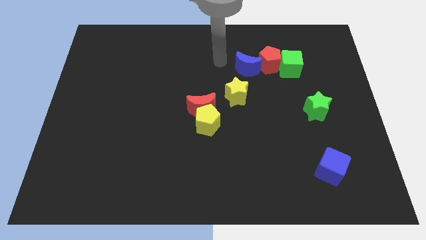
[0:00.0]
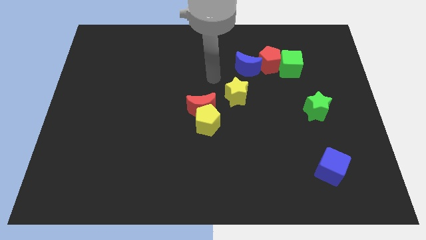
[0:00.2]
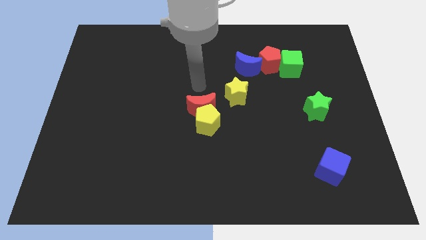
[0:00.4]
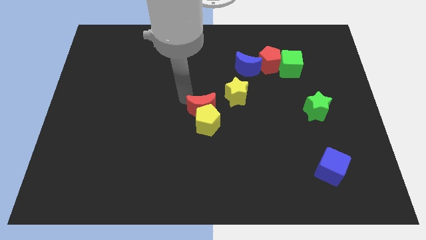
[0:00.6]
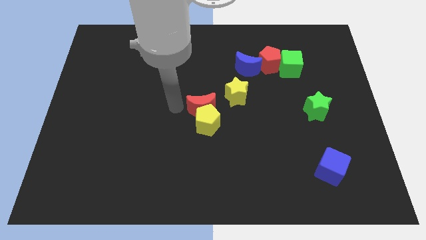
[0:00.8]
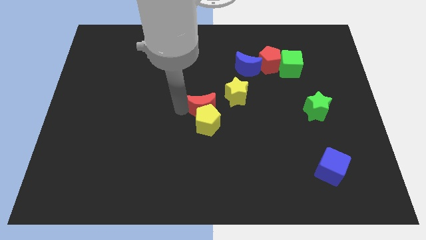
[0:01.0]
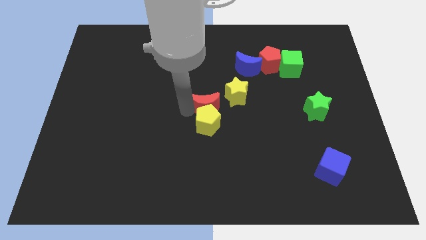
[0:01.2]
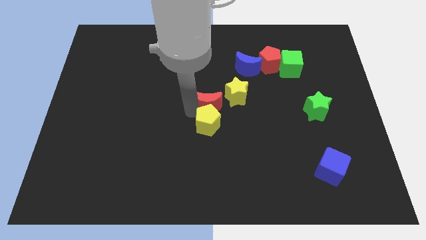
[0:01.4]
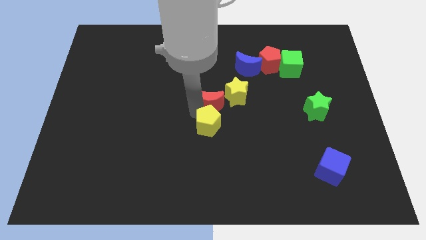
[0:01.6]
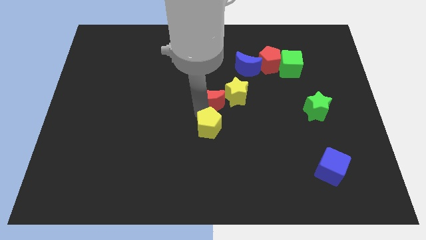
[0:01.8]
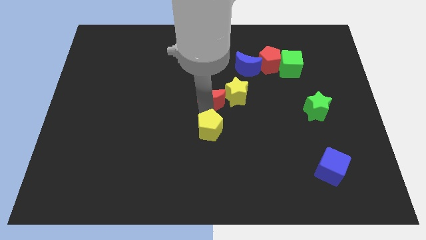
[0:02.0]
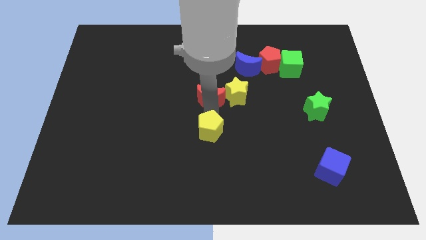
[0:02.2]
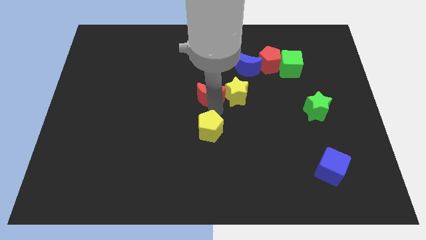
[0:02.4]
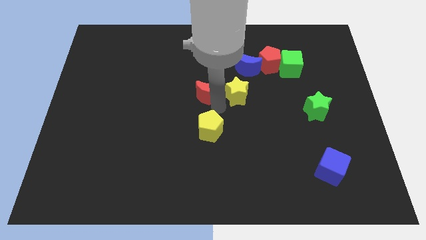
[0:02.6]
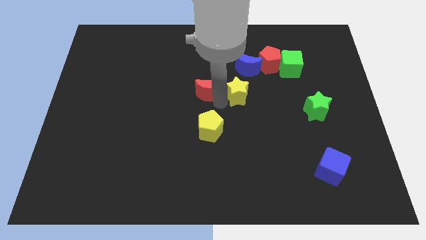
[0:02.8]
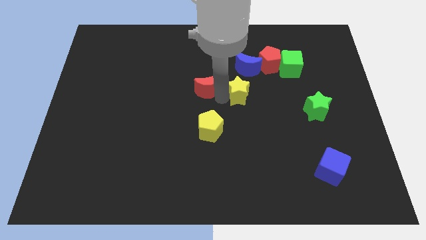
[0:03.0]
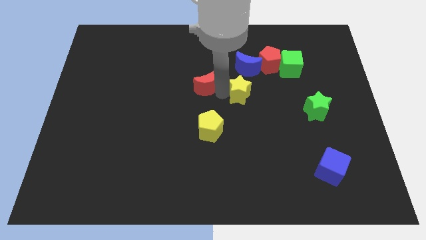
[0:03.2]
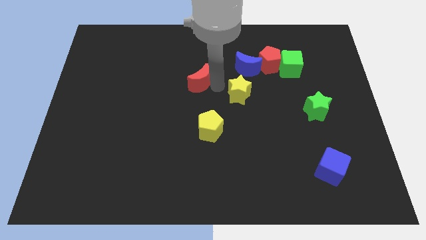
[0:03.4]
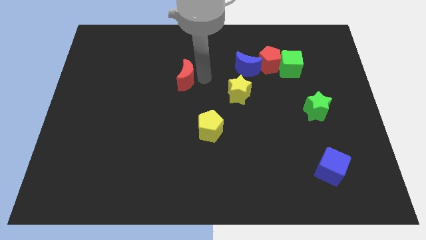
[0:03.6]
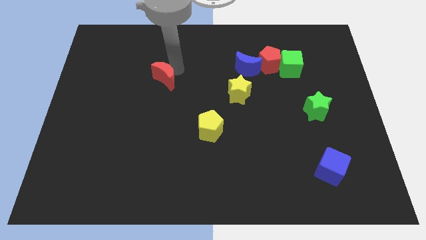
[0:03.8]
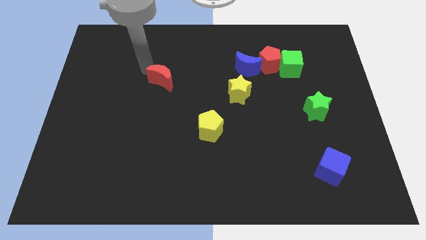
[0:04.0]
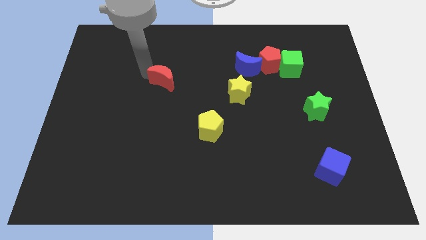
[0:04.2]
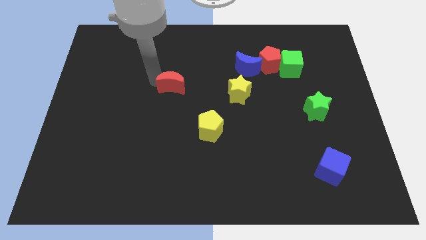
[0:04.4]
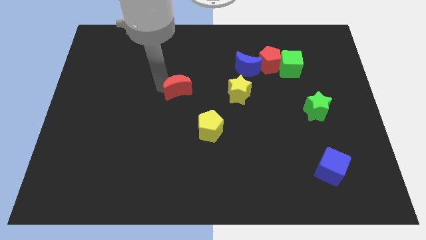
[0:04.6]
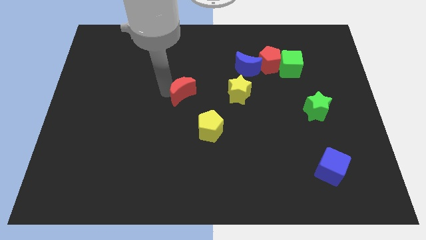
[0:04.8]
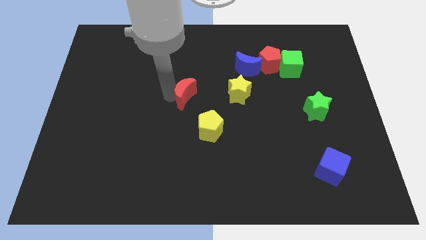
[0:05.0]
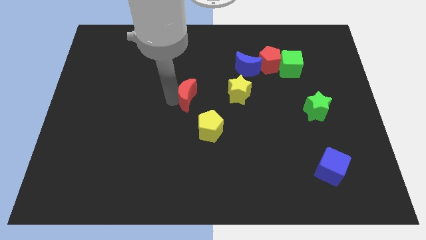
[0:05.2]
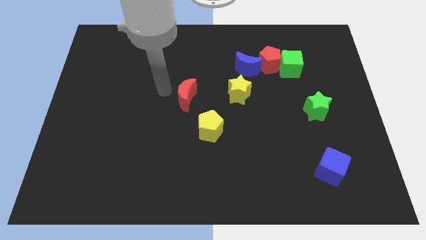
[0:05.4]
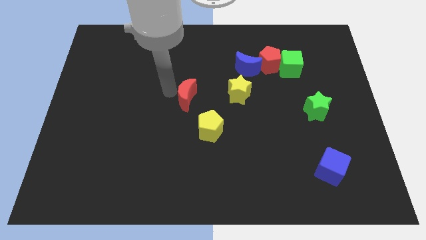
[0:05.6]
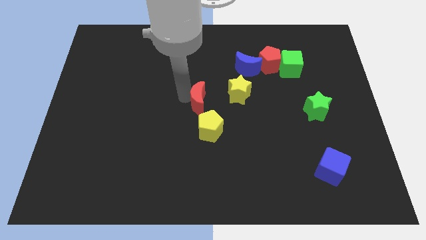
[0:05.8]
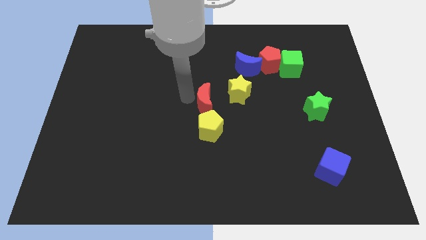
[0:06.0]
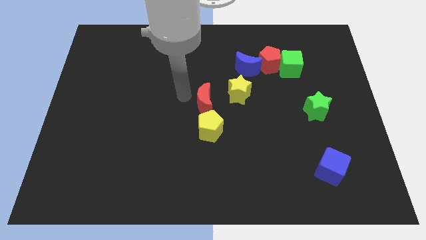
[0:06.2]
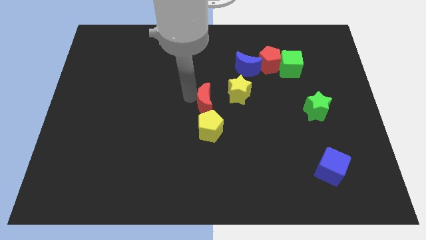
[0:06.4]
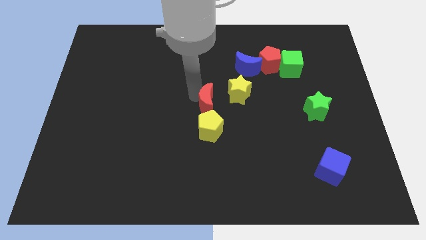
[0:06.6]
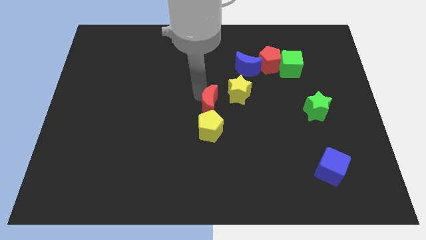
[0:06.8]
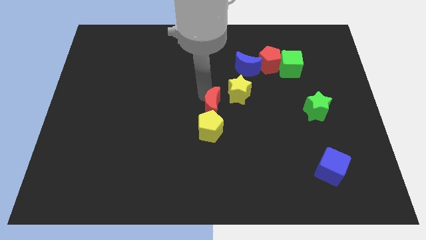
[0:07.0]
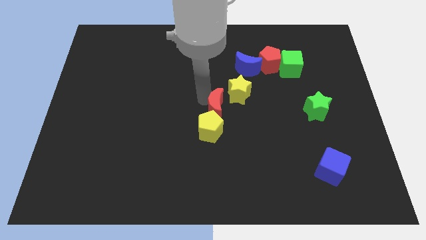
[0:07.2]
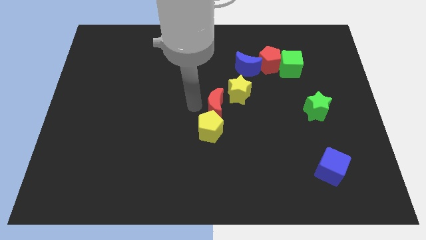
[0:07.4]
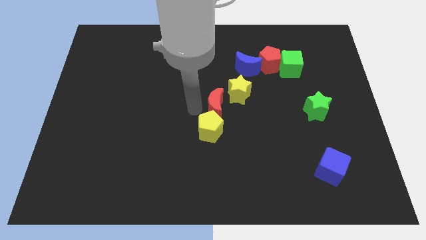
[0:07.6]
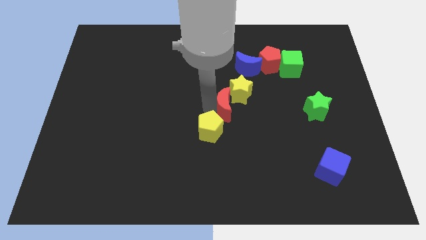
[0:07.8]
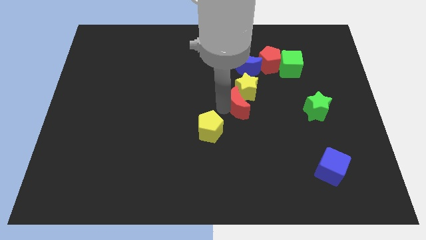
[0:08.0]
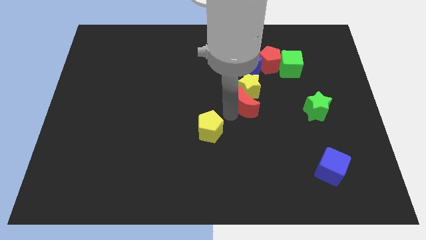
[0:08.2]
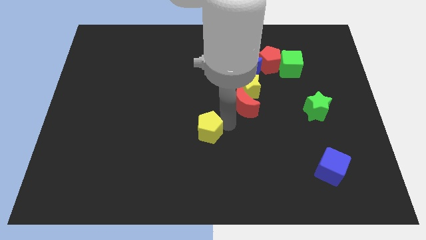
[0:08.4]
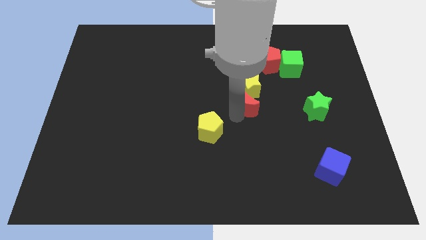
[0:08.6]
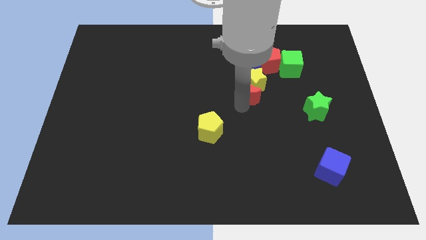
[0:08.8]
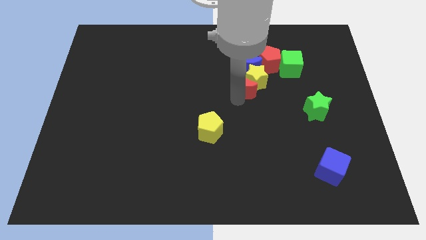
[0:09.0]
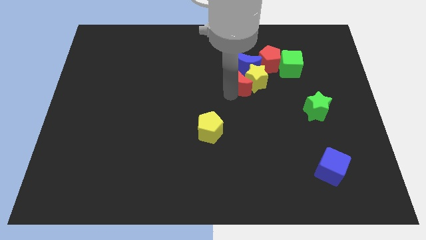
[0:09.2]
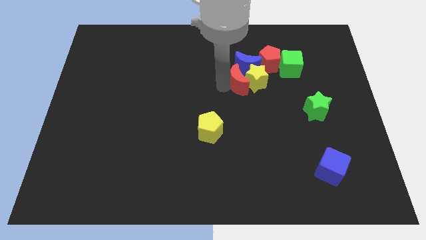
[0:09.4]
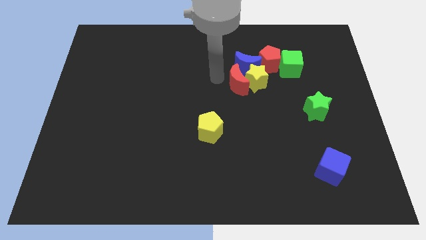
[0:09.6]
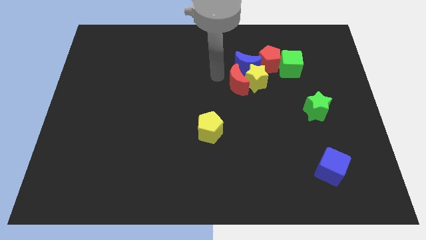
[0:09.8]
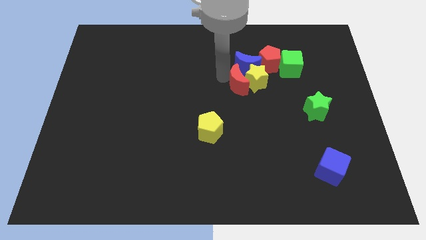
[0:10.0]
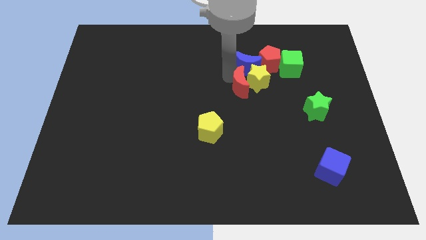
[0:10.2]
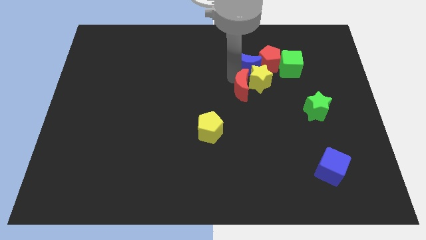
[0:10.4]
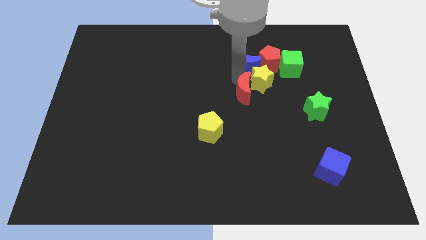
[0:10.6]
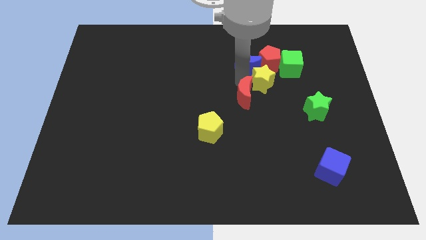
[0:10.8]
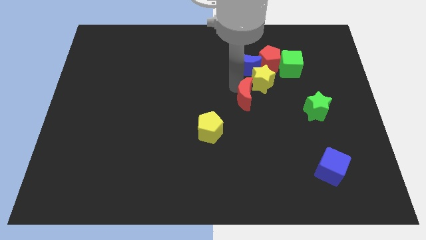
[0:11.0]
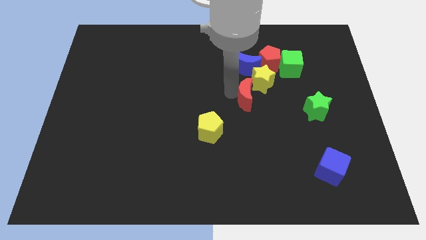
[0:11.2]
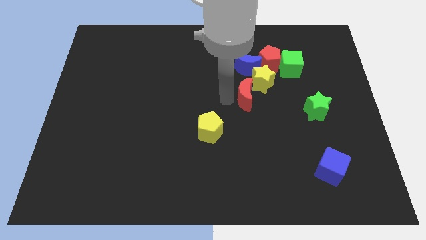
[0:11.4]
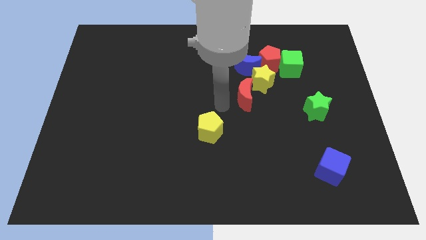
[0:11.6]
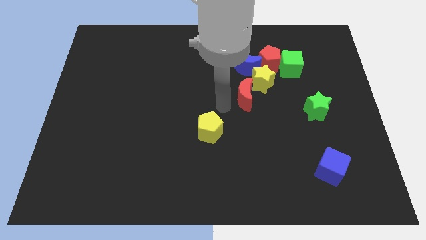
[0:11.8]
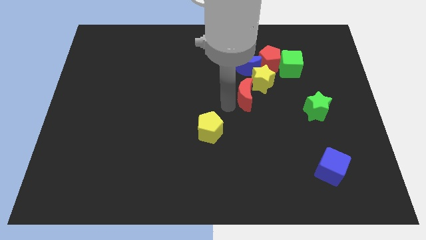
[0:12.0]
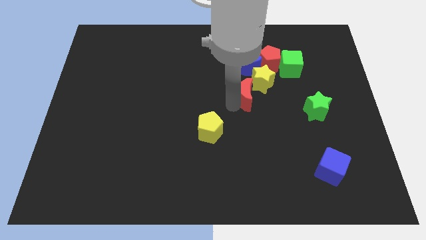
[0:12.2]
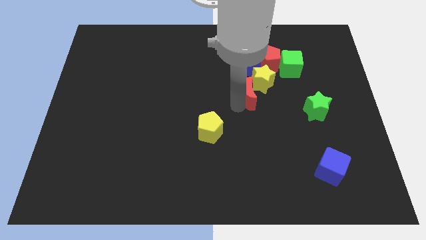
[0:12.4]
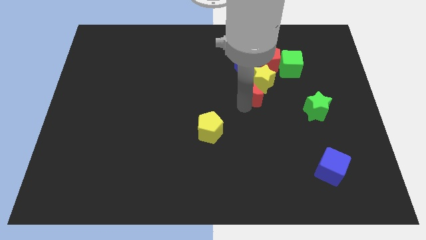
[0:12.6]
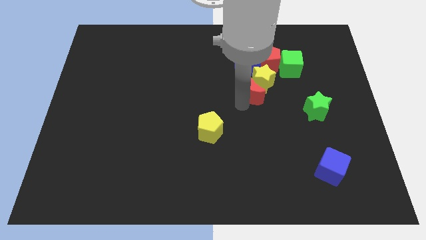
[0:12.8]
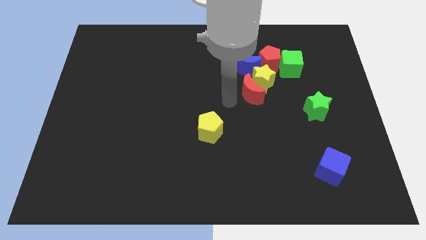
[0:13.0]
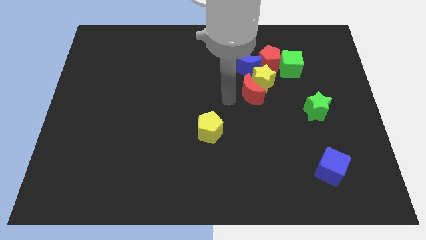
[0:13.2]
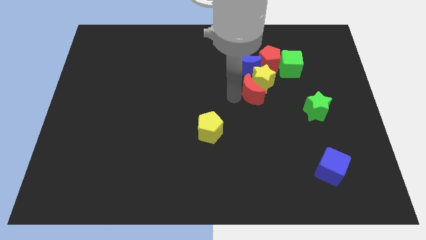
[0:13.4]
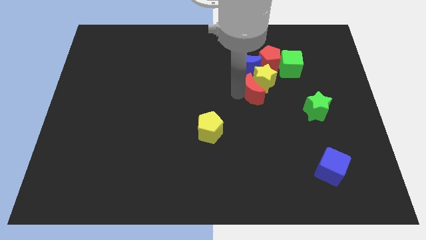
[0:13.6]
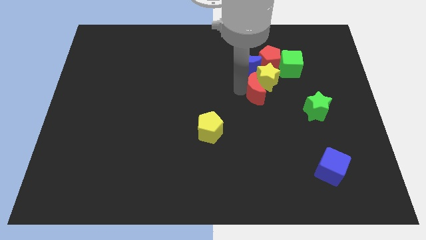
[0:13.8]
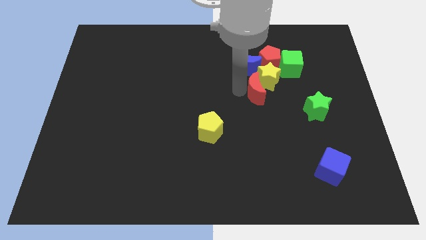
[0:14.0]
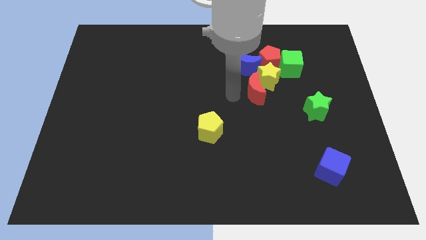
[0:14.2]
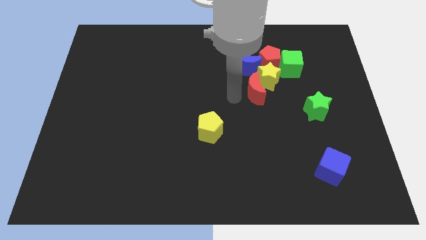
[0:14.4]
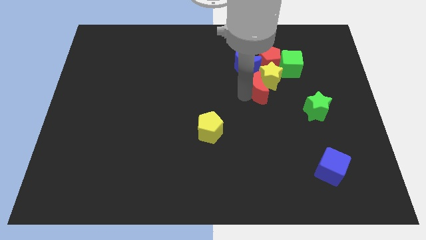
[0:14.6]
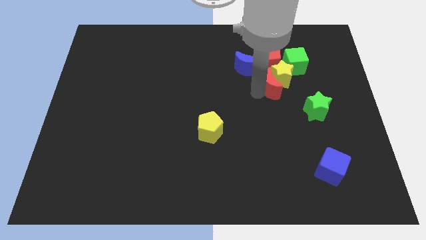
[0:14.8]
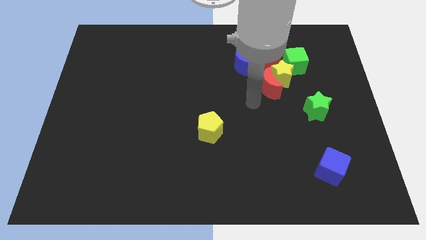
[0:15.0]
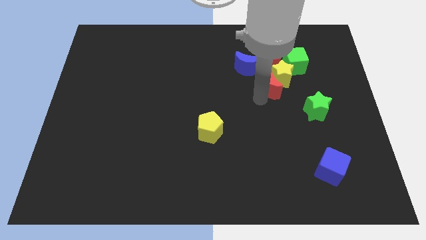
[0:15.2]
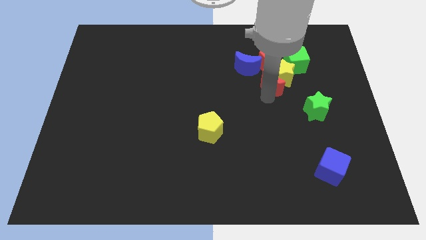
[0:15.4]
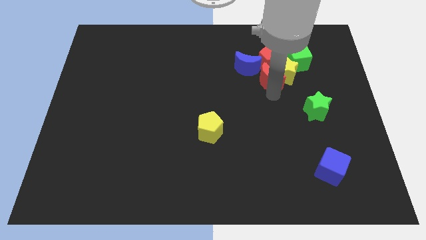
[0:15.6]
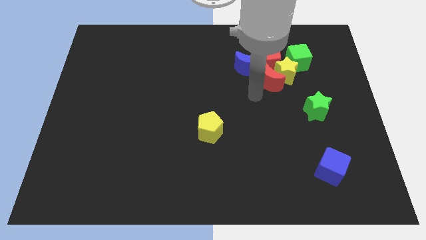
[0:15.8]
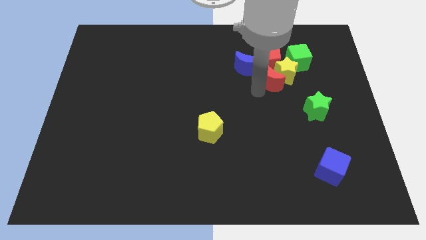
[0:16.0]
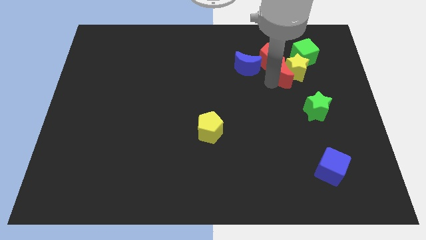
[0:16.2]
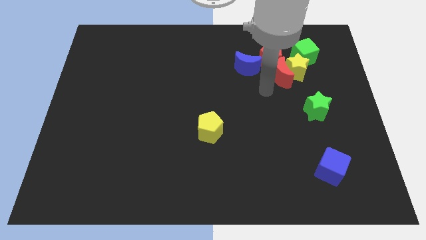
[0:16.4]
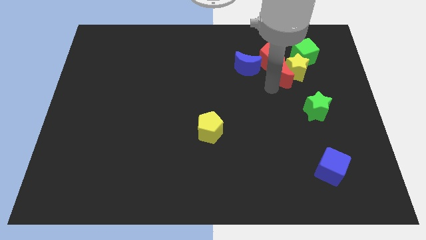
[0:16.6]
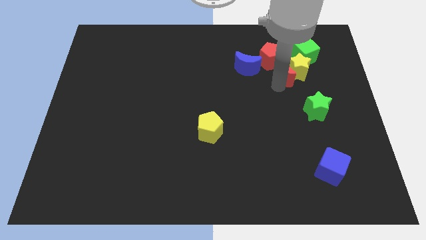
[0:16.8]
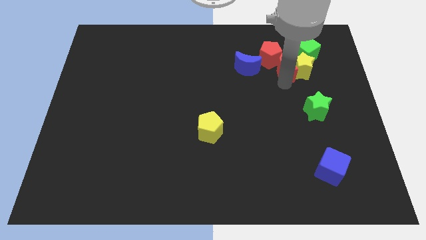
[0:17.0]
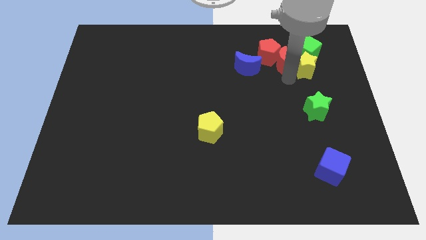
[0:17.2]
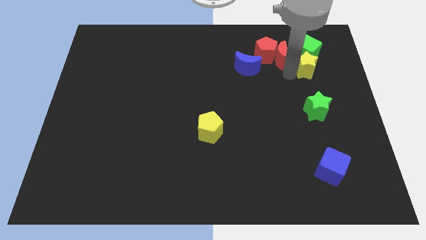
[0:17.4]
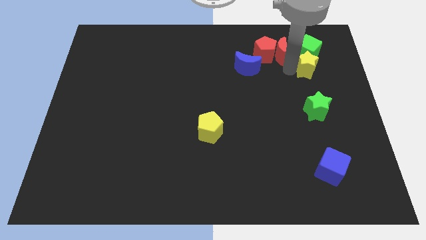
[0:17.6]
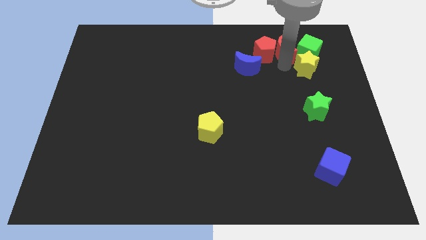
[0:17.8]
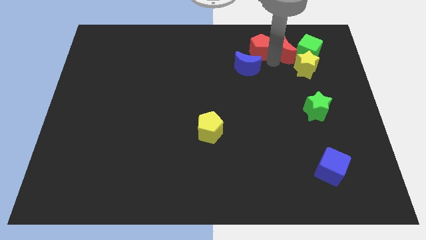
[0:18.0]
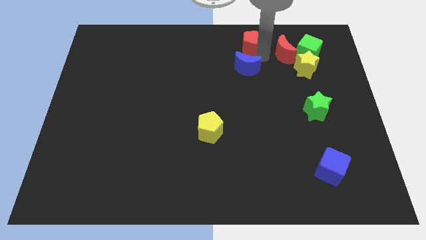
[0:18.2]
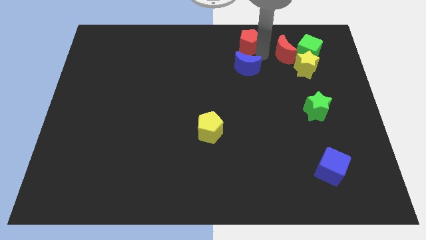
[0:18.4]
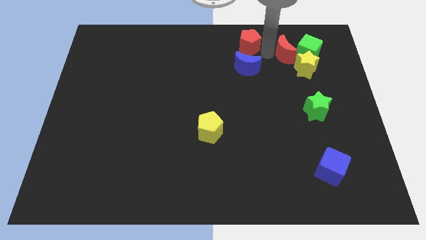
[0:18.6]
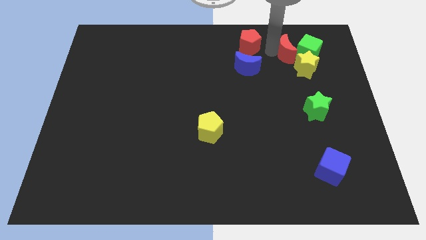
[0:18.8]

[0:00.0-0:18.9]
push the red moon to the green cube
